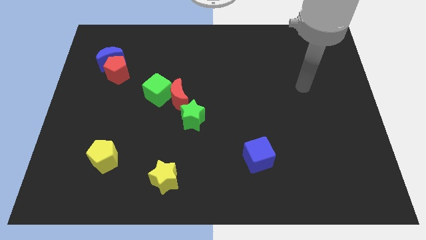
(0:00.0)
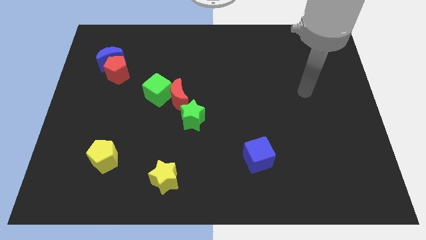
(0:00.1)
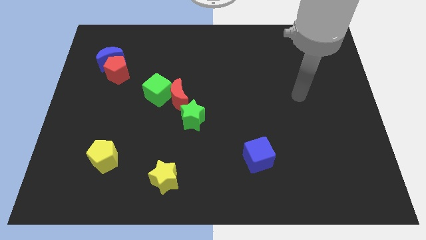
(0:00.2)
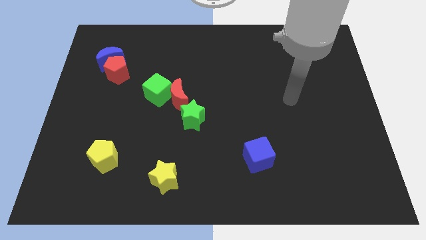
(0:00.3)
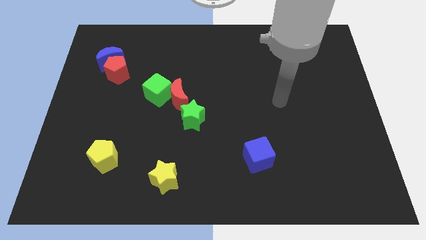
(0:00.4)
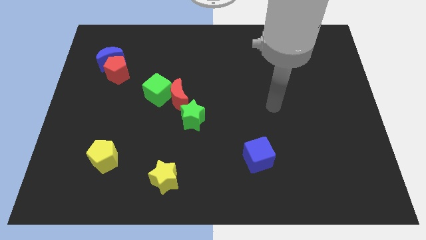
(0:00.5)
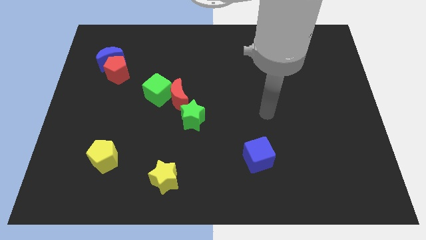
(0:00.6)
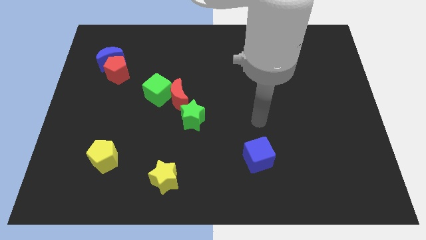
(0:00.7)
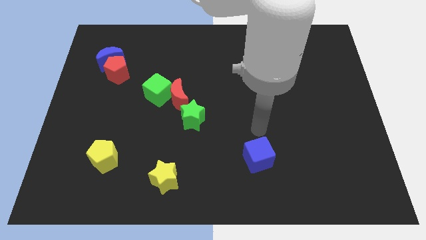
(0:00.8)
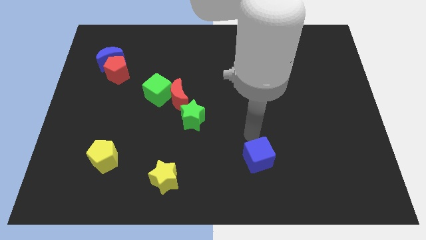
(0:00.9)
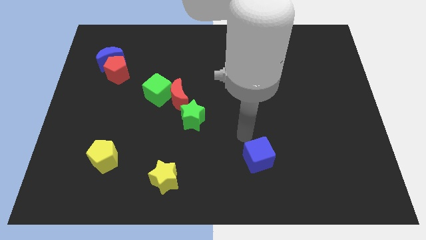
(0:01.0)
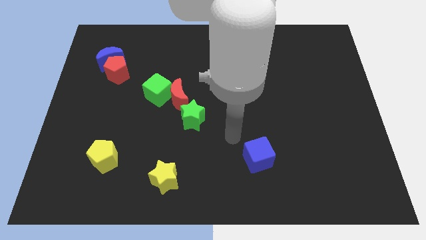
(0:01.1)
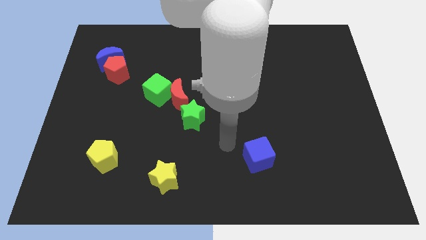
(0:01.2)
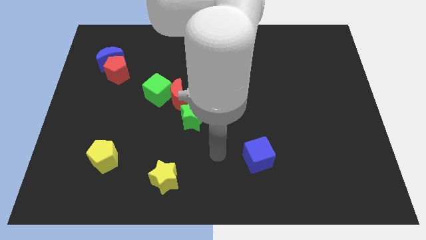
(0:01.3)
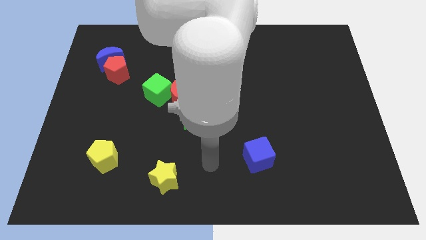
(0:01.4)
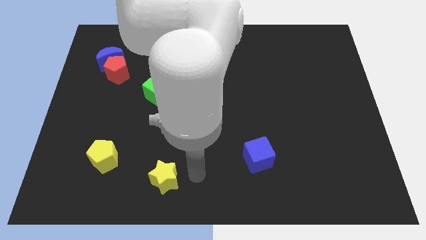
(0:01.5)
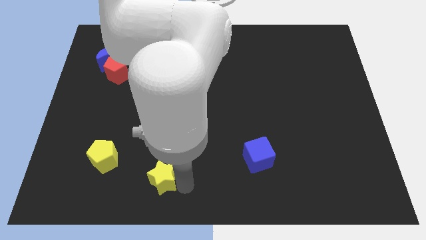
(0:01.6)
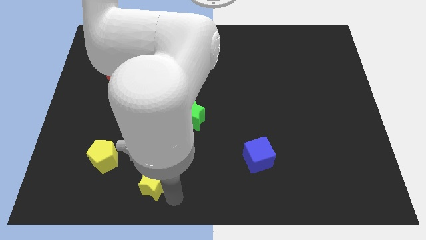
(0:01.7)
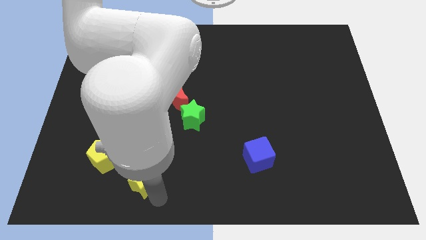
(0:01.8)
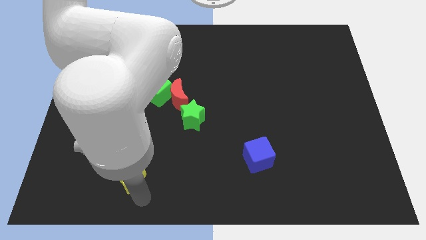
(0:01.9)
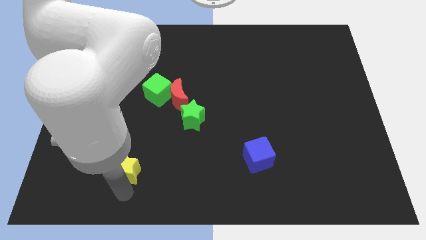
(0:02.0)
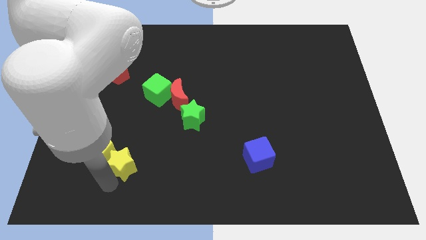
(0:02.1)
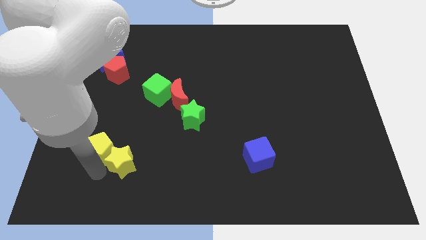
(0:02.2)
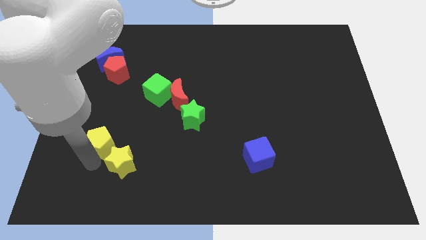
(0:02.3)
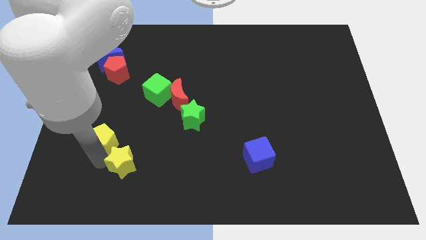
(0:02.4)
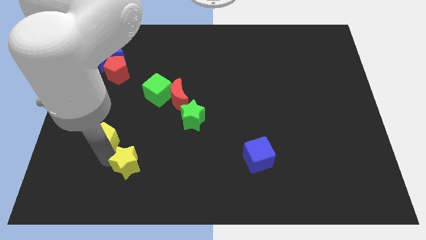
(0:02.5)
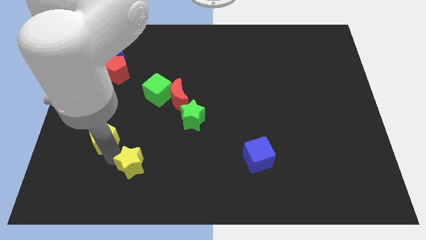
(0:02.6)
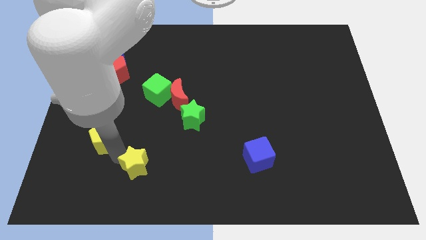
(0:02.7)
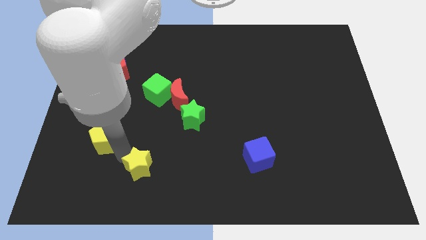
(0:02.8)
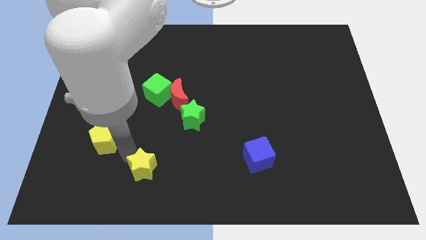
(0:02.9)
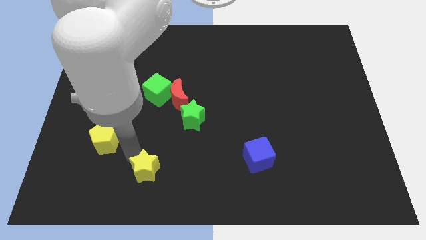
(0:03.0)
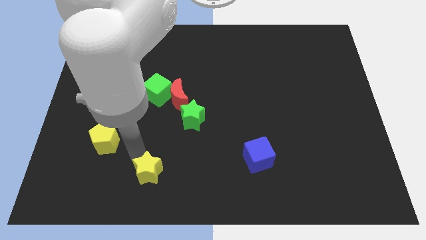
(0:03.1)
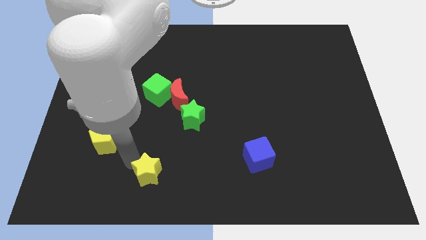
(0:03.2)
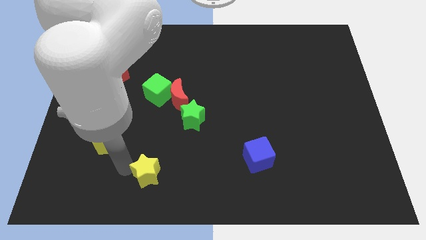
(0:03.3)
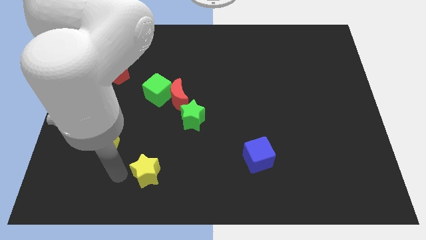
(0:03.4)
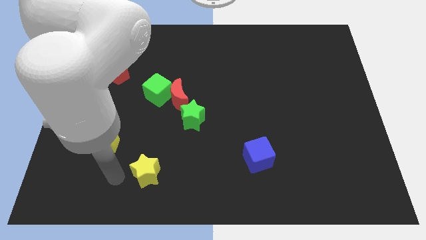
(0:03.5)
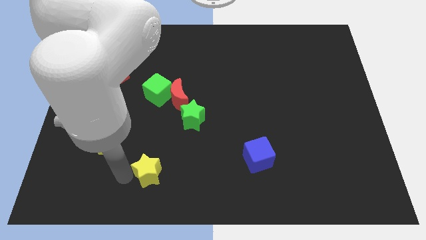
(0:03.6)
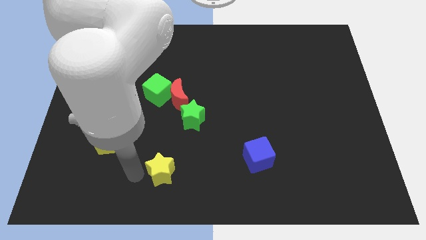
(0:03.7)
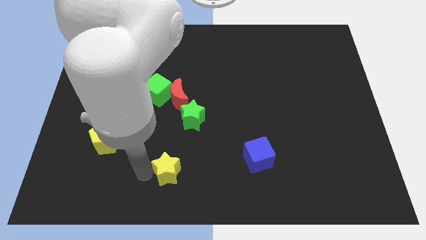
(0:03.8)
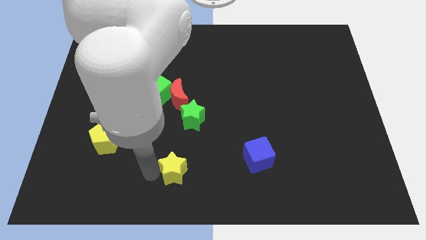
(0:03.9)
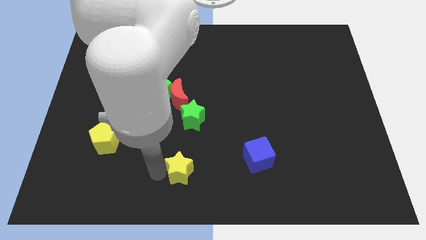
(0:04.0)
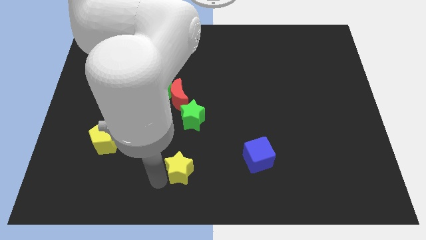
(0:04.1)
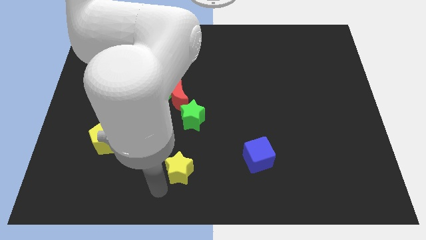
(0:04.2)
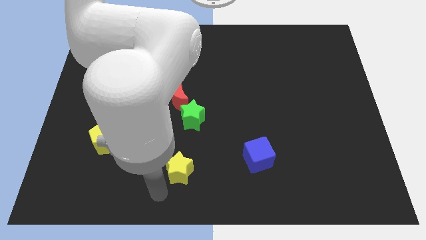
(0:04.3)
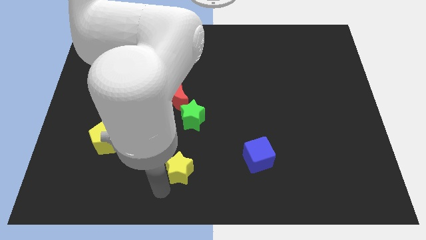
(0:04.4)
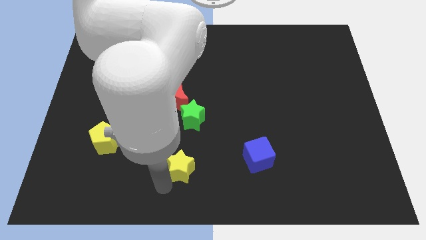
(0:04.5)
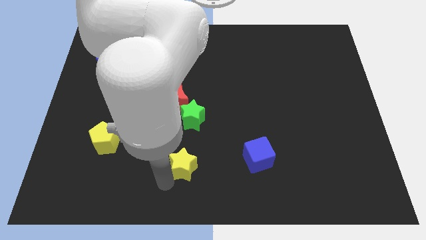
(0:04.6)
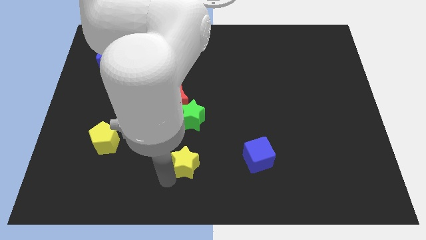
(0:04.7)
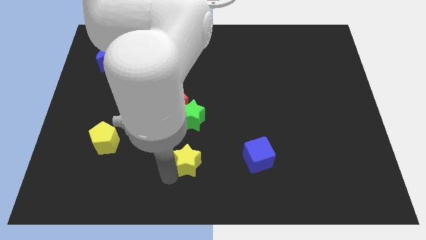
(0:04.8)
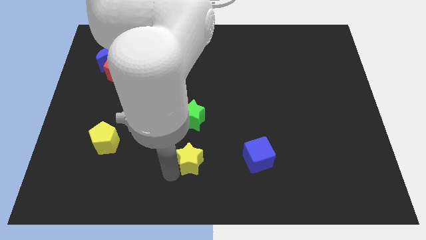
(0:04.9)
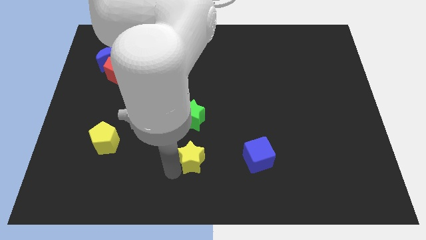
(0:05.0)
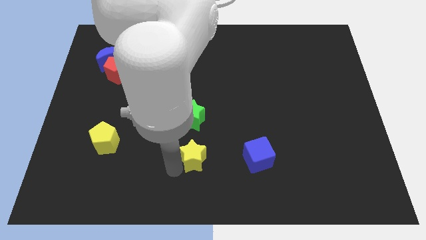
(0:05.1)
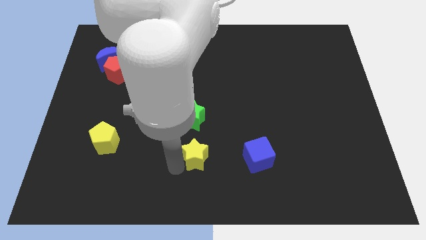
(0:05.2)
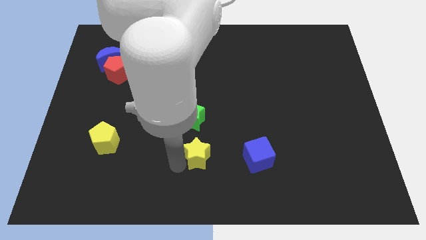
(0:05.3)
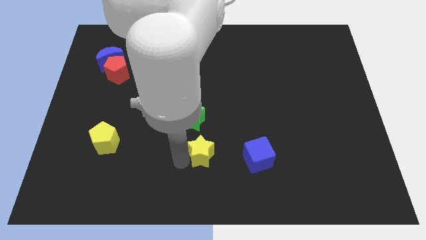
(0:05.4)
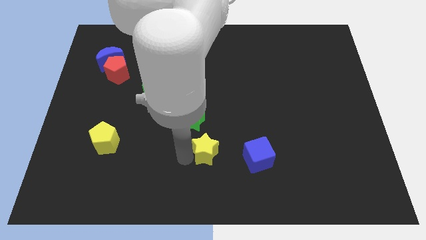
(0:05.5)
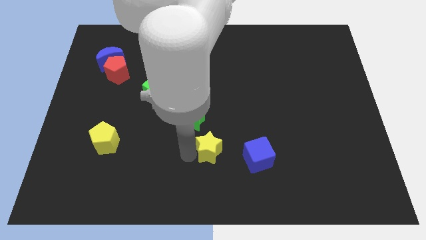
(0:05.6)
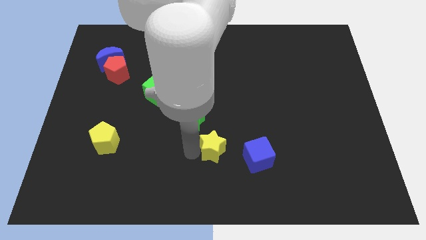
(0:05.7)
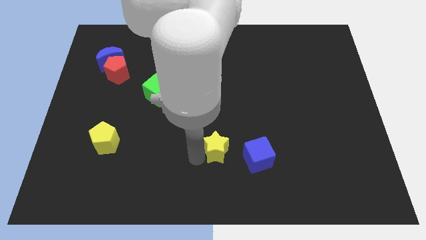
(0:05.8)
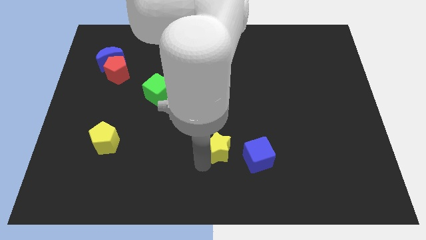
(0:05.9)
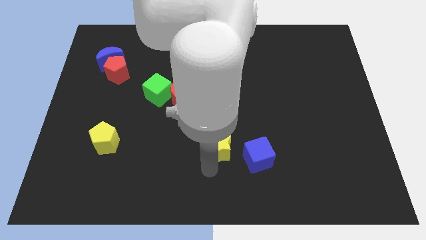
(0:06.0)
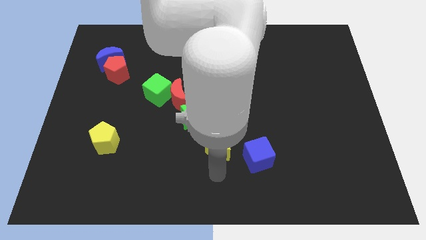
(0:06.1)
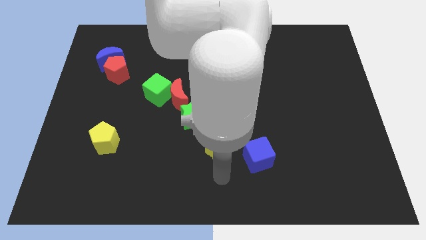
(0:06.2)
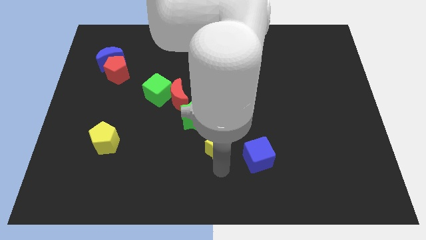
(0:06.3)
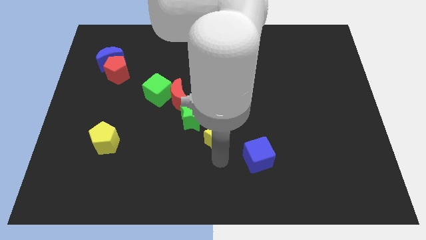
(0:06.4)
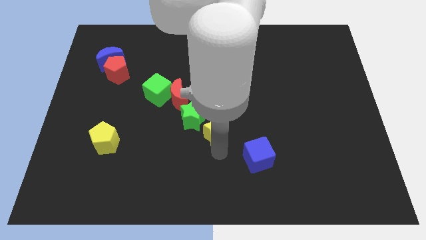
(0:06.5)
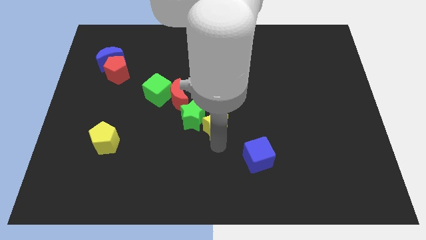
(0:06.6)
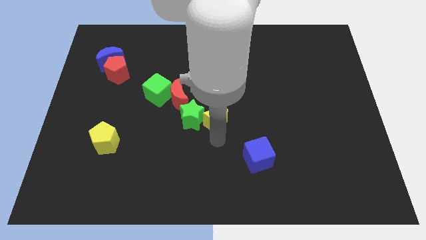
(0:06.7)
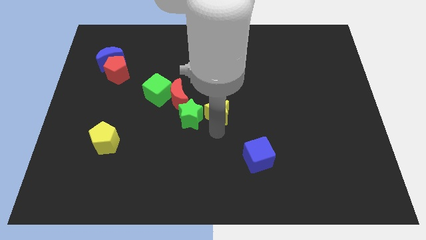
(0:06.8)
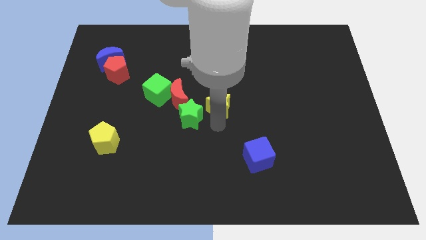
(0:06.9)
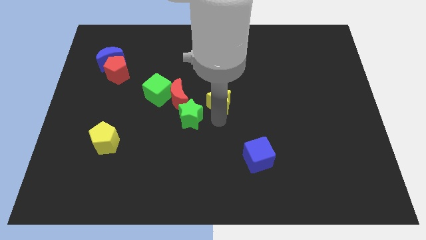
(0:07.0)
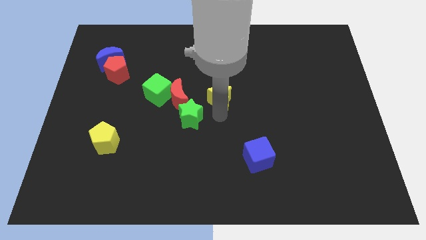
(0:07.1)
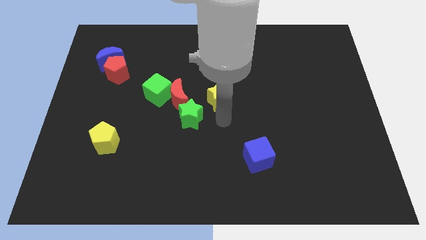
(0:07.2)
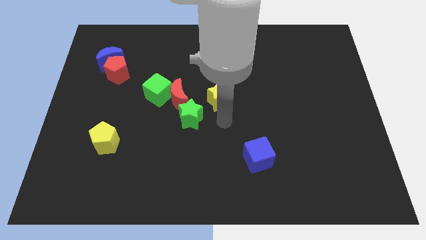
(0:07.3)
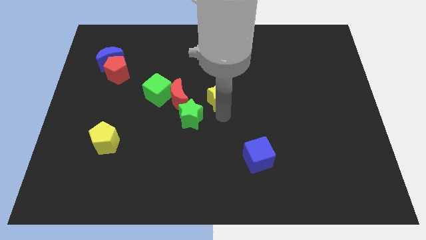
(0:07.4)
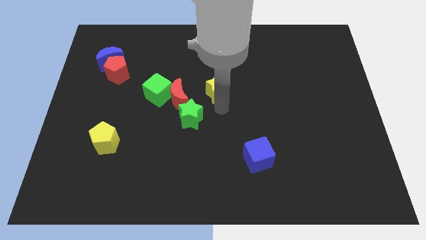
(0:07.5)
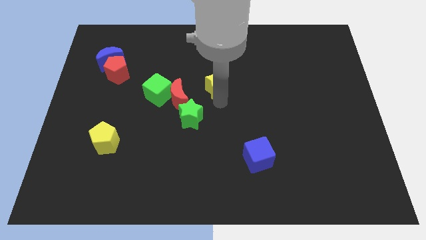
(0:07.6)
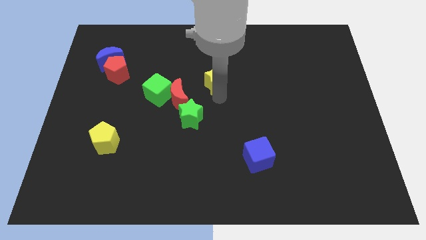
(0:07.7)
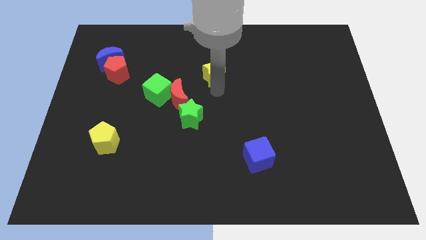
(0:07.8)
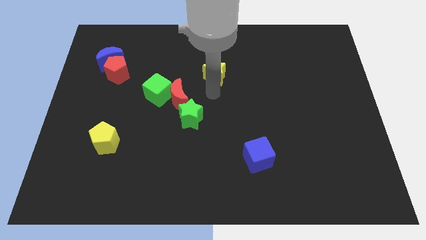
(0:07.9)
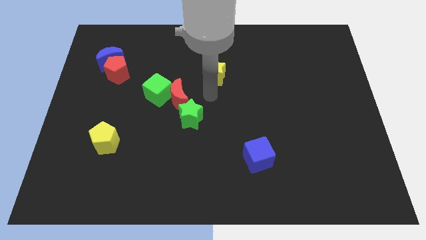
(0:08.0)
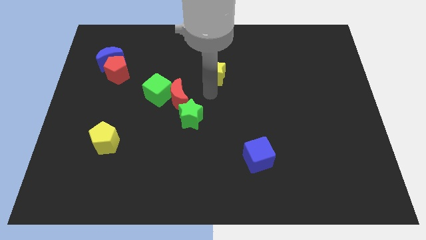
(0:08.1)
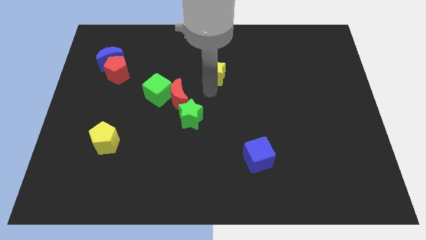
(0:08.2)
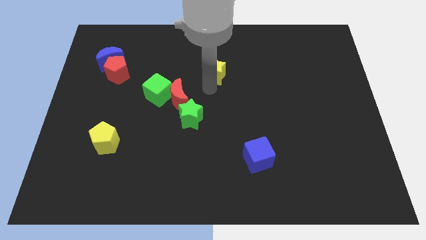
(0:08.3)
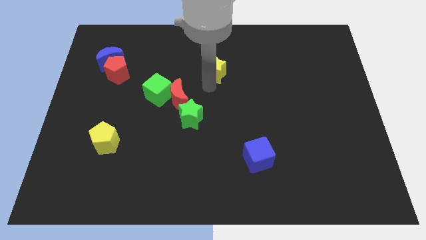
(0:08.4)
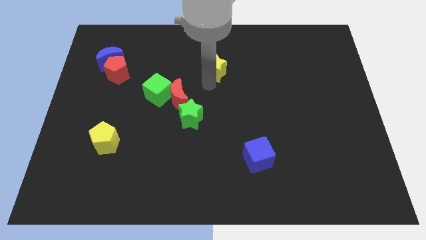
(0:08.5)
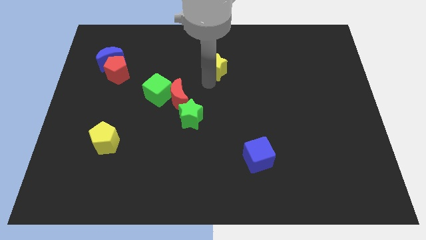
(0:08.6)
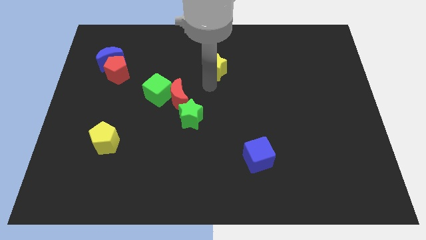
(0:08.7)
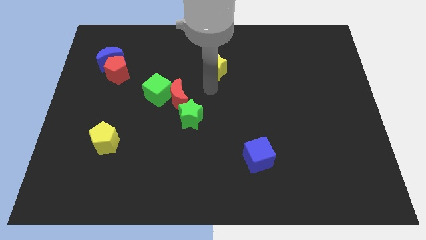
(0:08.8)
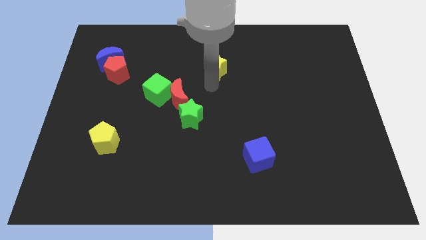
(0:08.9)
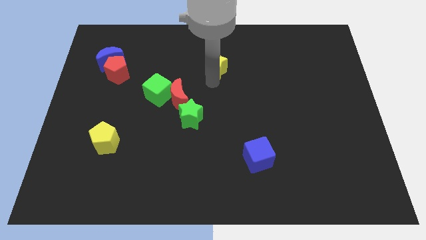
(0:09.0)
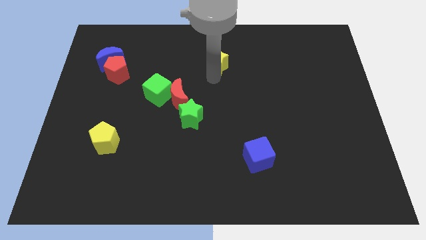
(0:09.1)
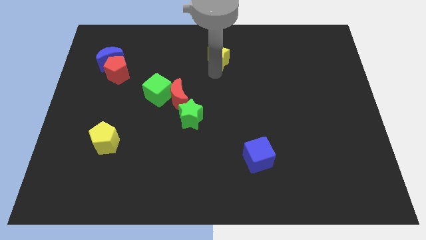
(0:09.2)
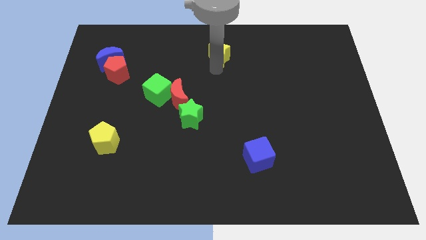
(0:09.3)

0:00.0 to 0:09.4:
move the yellow star to the top
